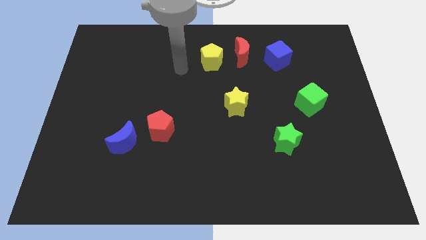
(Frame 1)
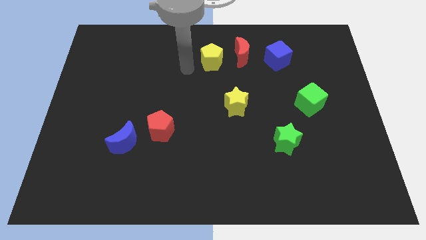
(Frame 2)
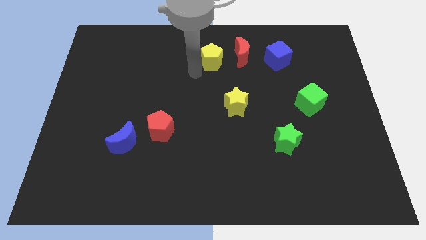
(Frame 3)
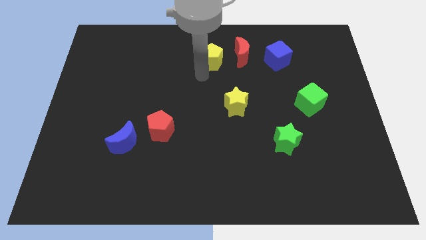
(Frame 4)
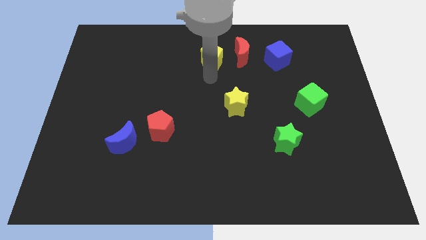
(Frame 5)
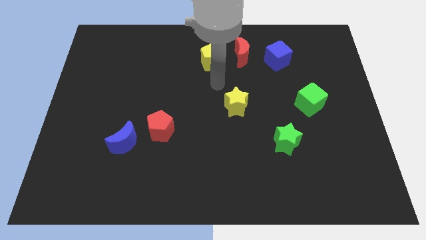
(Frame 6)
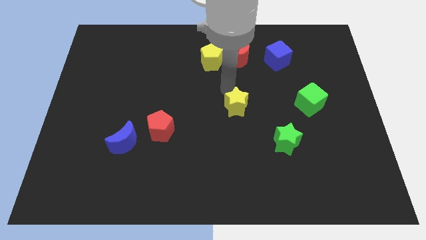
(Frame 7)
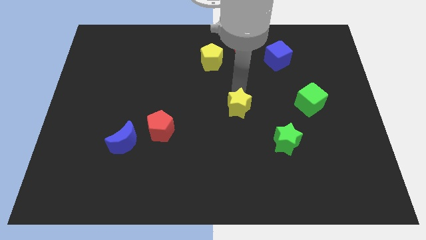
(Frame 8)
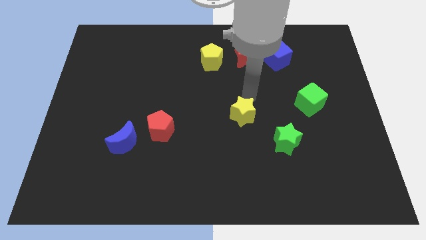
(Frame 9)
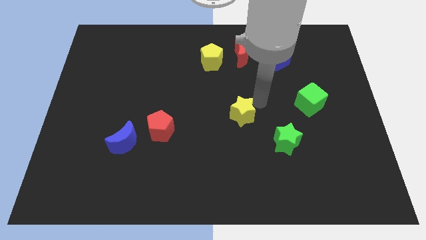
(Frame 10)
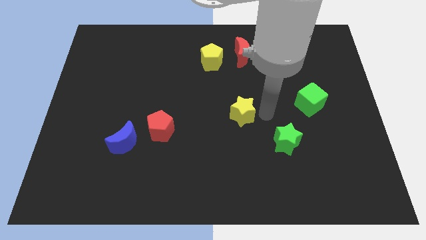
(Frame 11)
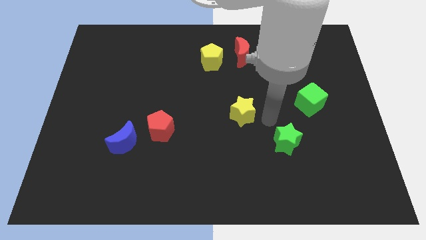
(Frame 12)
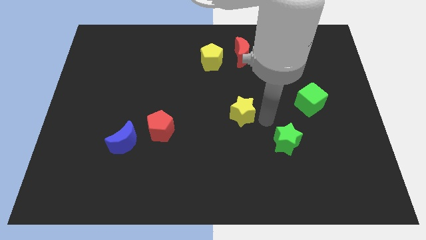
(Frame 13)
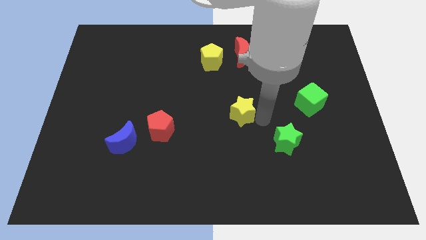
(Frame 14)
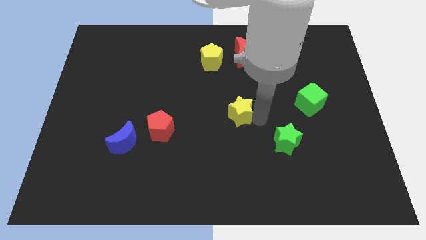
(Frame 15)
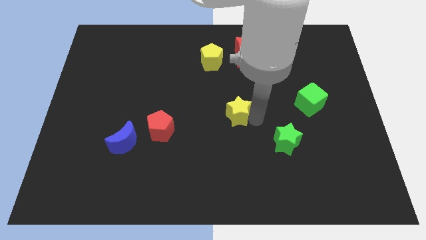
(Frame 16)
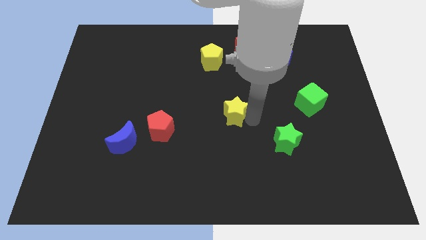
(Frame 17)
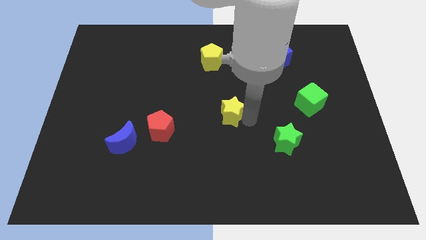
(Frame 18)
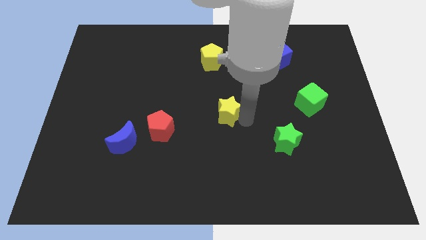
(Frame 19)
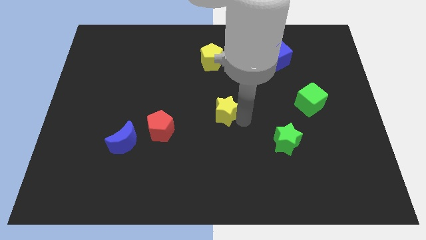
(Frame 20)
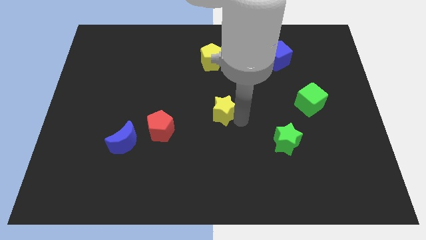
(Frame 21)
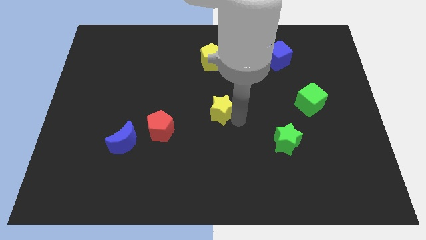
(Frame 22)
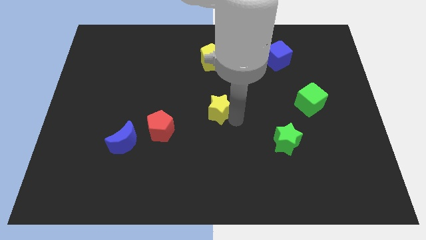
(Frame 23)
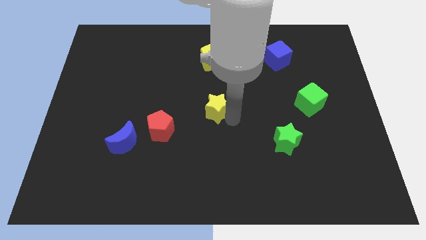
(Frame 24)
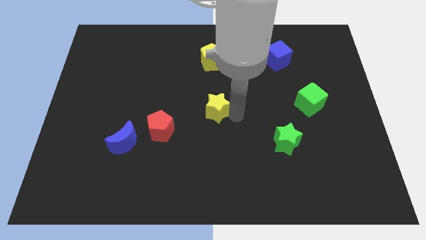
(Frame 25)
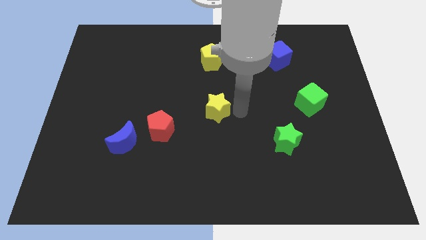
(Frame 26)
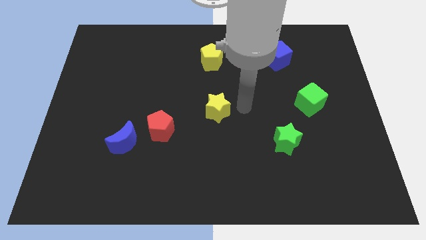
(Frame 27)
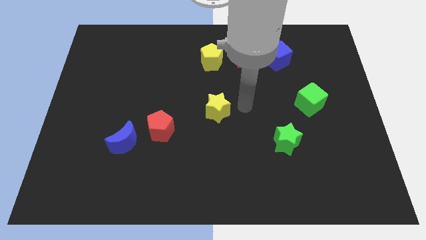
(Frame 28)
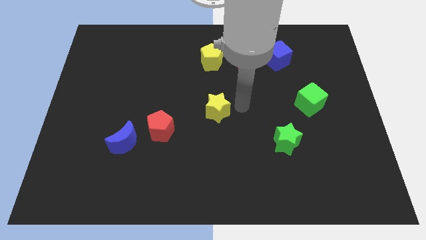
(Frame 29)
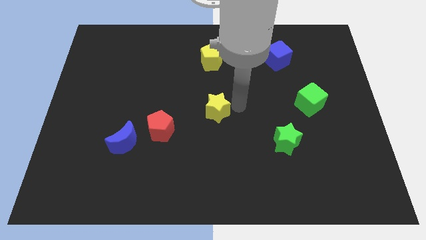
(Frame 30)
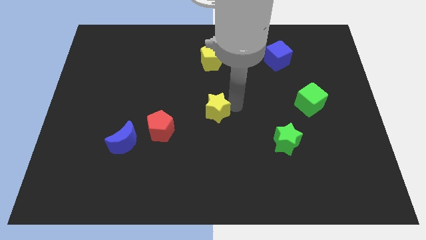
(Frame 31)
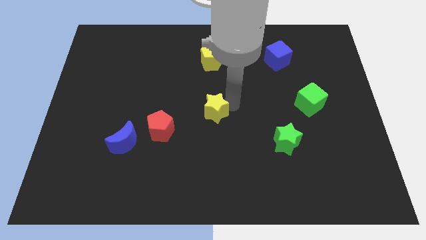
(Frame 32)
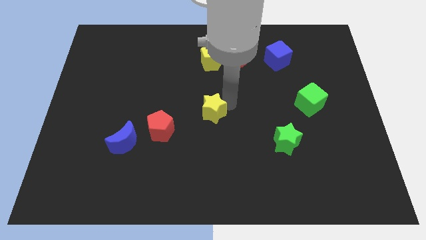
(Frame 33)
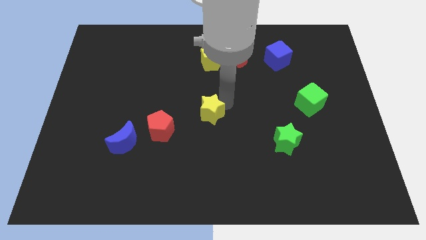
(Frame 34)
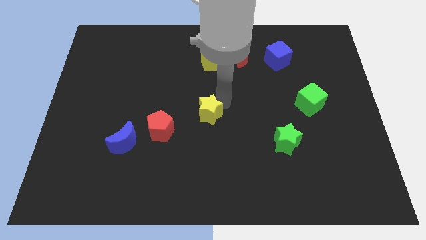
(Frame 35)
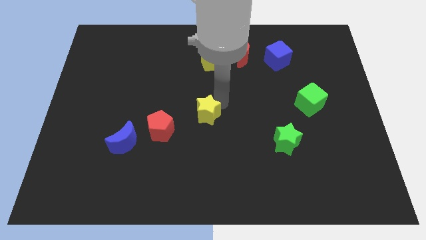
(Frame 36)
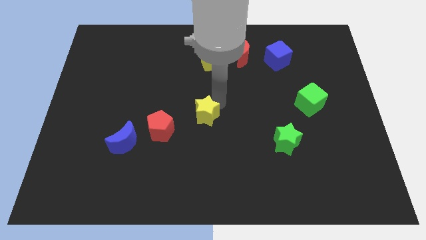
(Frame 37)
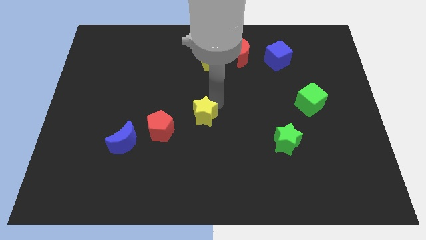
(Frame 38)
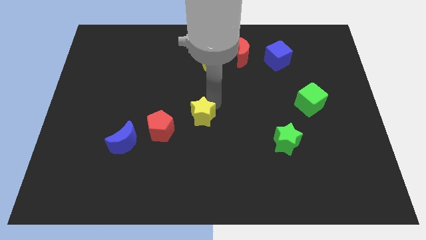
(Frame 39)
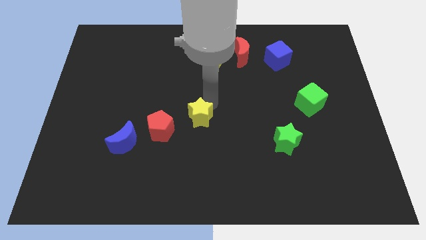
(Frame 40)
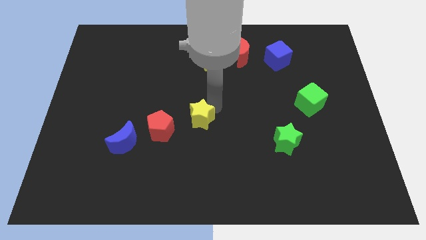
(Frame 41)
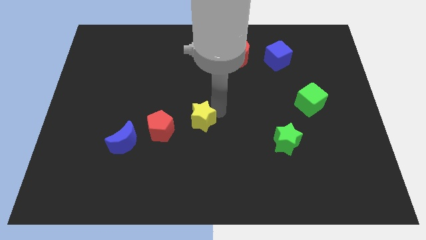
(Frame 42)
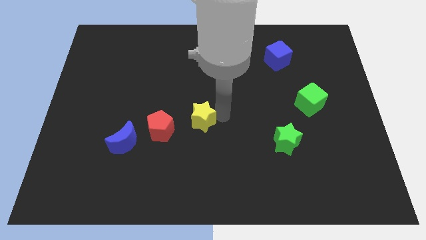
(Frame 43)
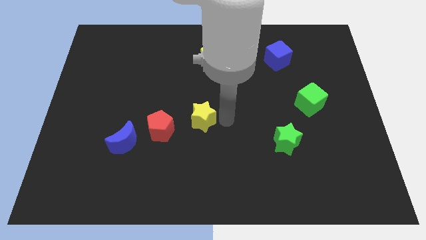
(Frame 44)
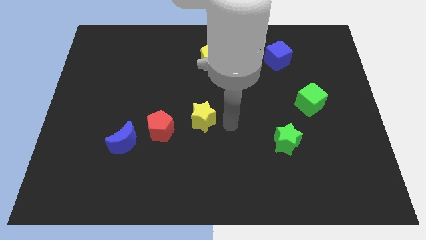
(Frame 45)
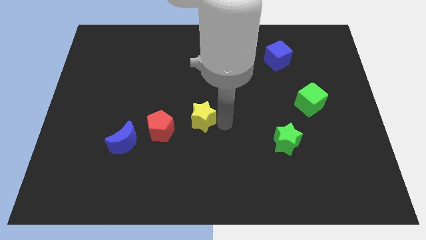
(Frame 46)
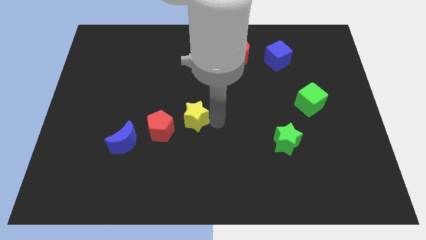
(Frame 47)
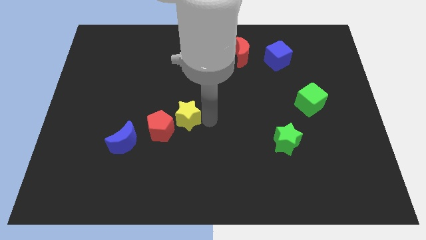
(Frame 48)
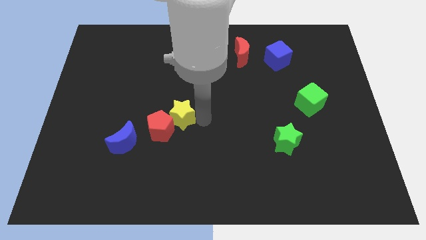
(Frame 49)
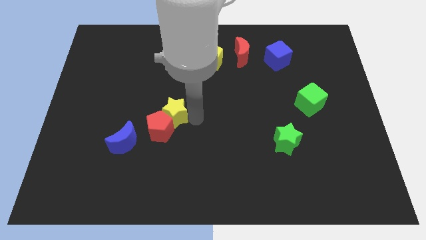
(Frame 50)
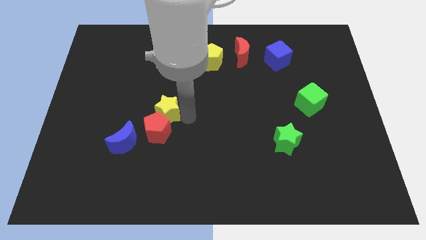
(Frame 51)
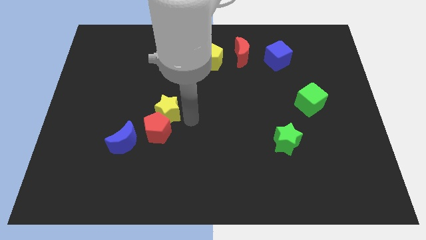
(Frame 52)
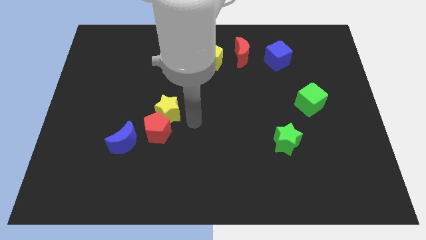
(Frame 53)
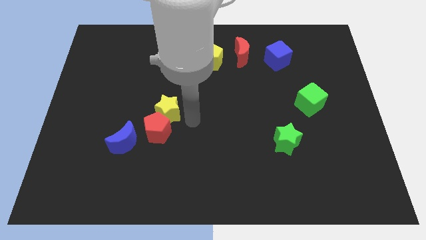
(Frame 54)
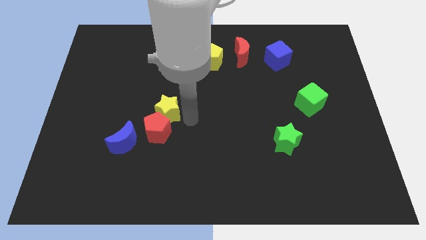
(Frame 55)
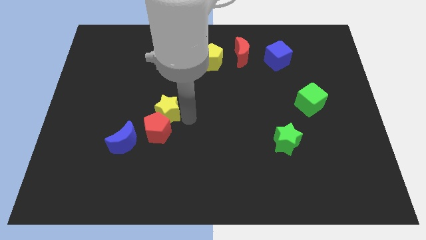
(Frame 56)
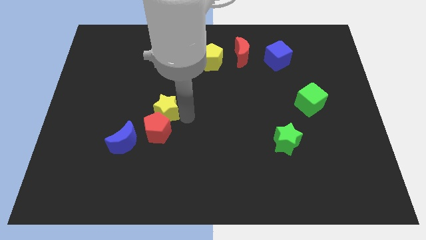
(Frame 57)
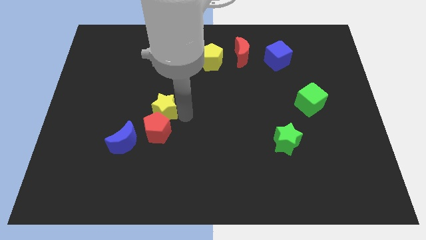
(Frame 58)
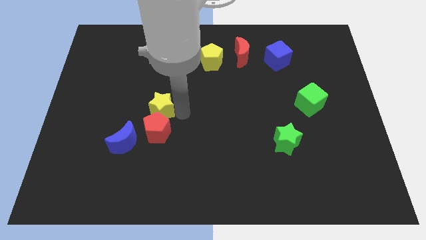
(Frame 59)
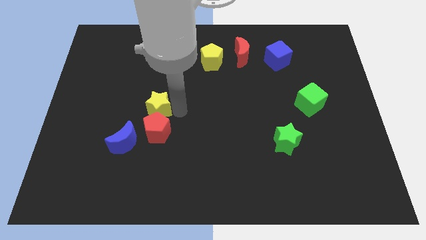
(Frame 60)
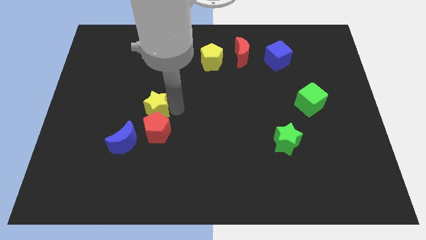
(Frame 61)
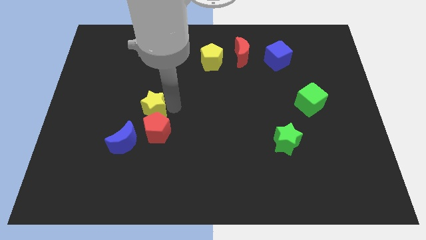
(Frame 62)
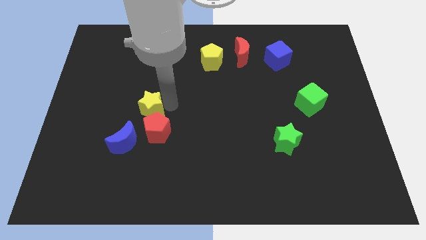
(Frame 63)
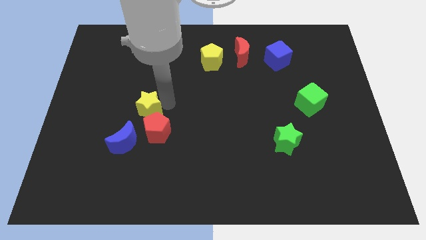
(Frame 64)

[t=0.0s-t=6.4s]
slide the yellow star to the left

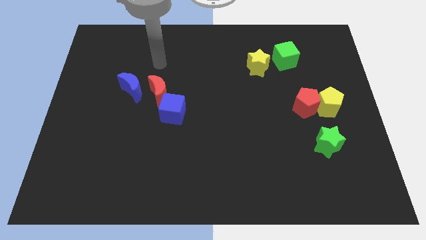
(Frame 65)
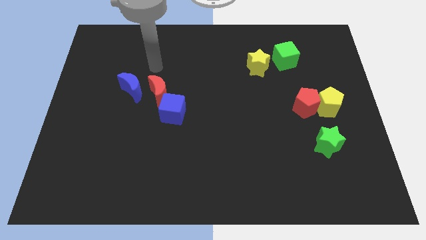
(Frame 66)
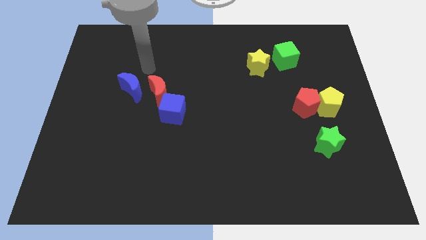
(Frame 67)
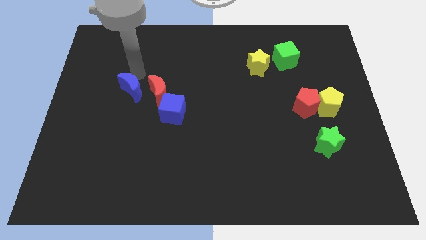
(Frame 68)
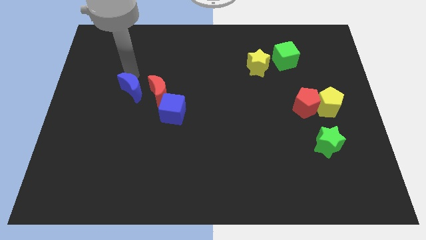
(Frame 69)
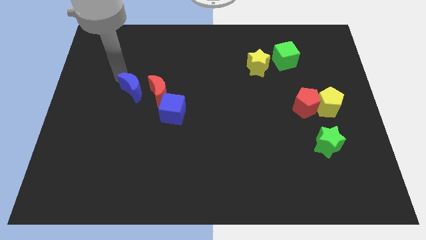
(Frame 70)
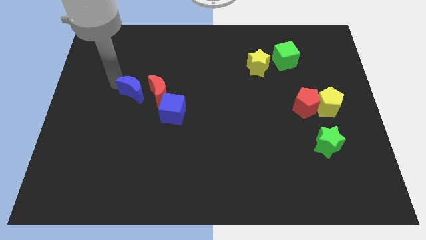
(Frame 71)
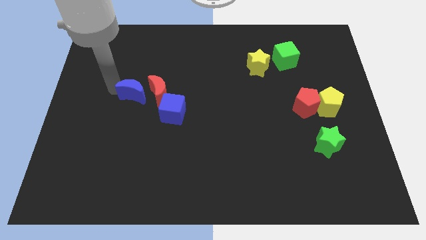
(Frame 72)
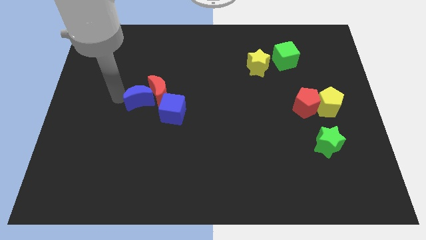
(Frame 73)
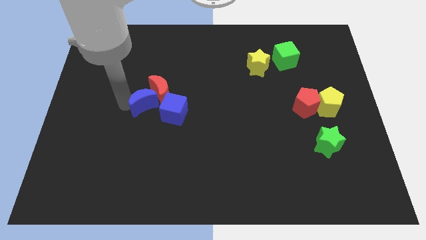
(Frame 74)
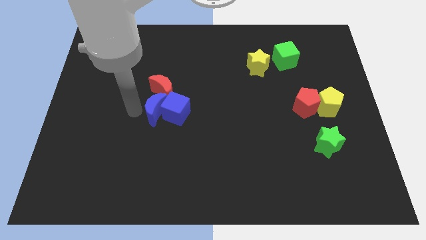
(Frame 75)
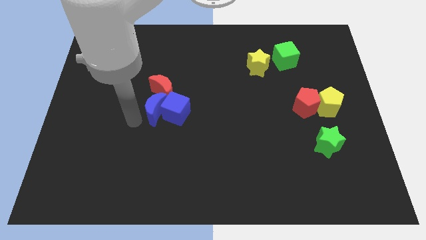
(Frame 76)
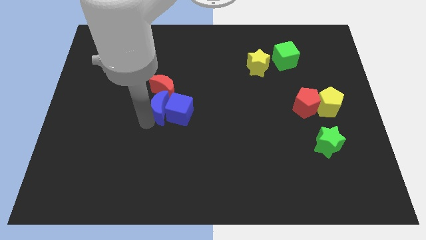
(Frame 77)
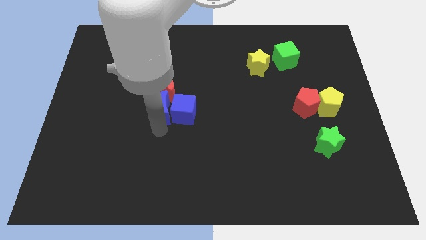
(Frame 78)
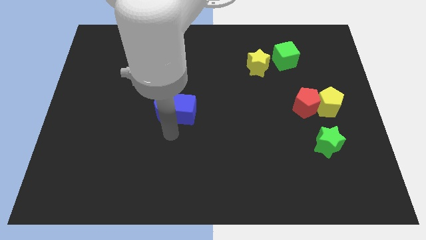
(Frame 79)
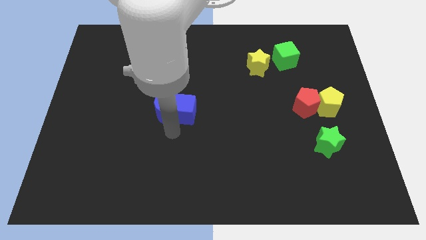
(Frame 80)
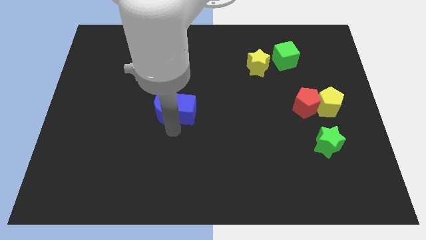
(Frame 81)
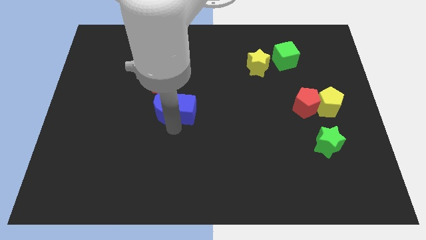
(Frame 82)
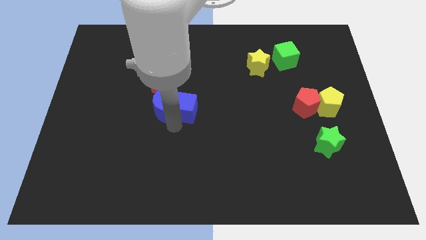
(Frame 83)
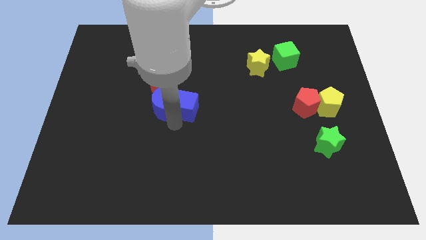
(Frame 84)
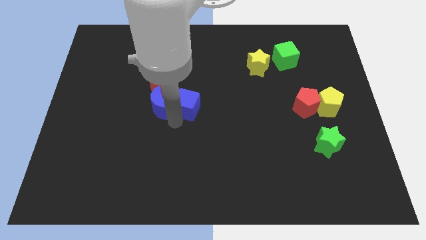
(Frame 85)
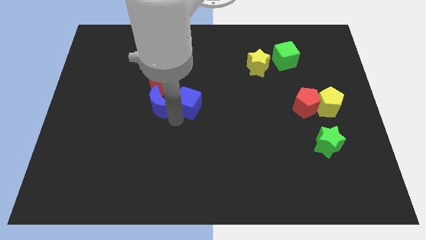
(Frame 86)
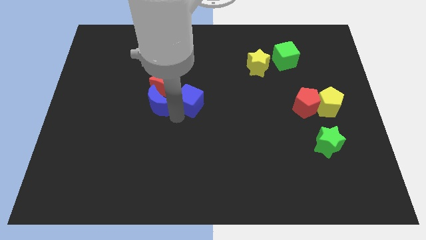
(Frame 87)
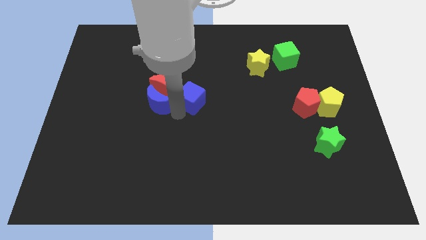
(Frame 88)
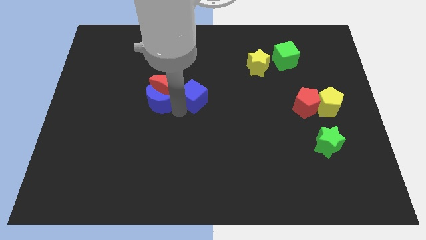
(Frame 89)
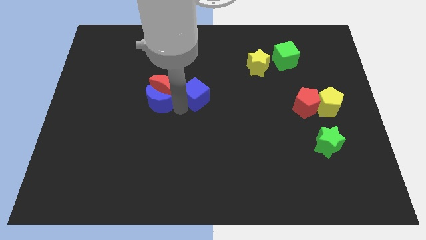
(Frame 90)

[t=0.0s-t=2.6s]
slightly push the blue cube up and to the right diagonally
